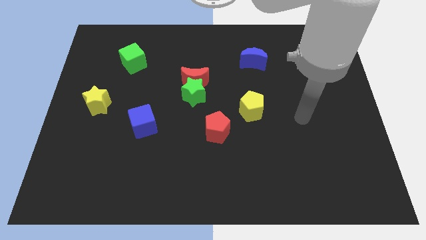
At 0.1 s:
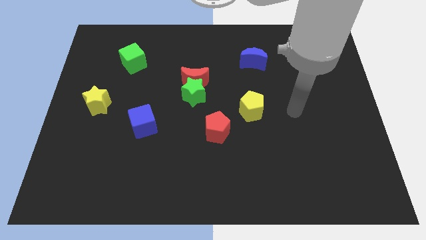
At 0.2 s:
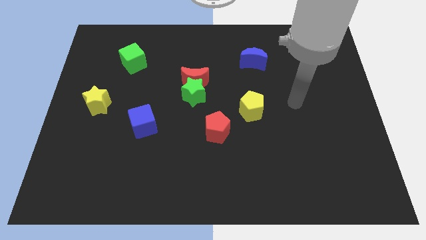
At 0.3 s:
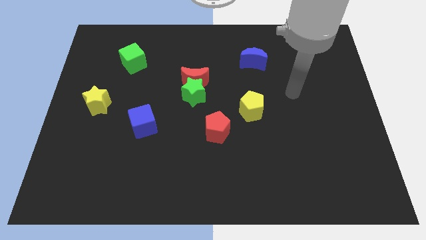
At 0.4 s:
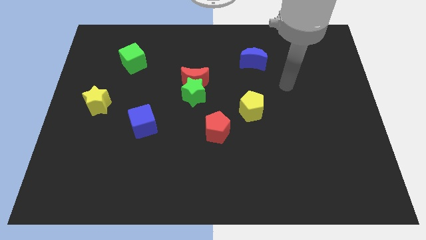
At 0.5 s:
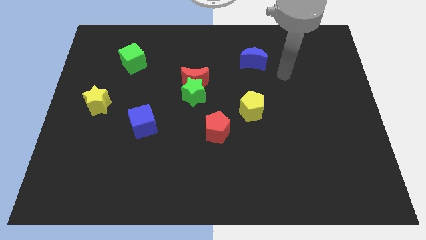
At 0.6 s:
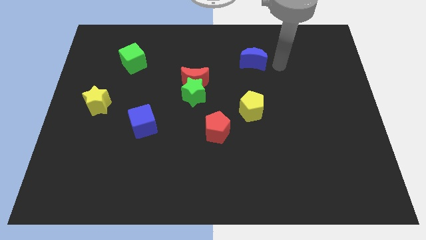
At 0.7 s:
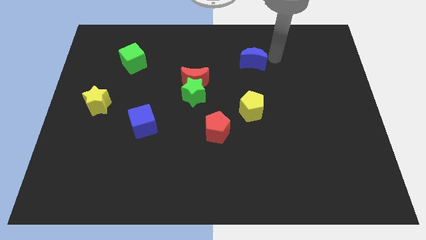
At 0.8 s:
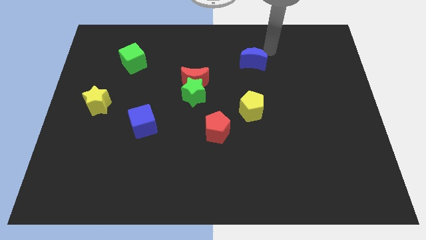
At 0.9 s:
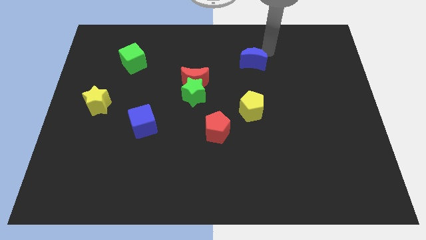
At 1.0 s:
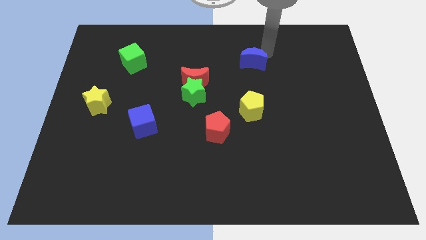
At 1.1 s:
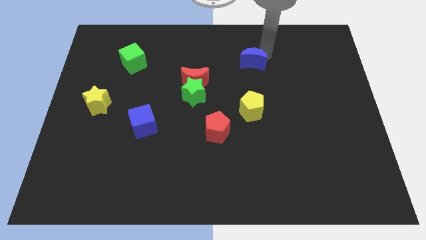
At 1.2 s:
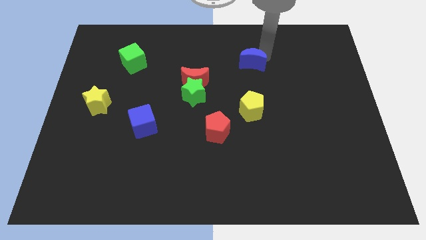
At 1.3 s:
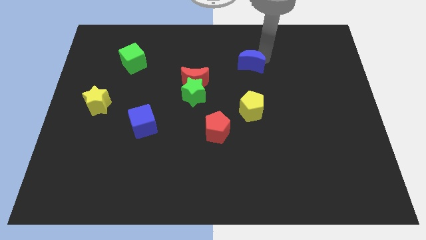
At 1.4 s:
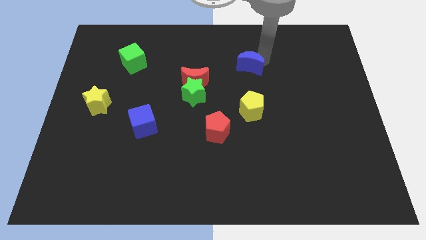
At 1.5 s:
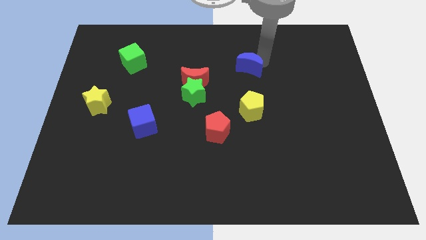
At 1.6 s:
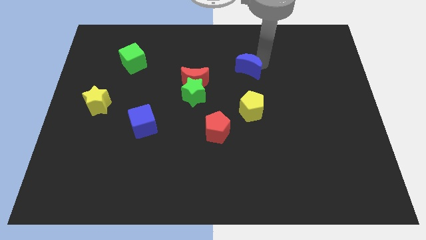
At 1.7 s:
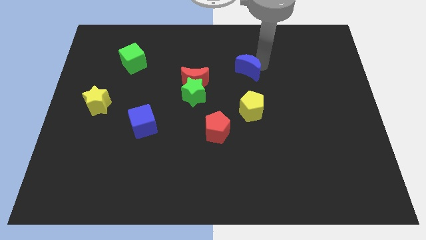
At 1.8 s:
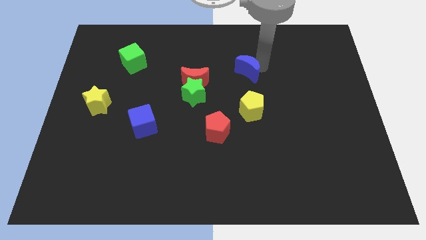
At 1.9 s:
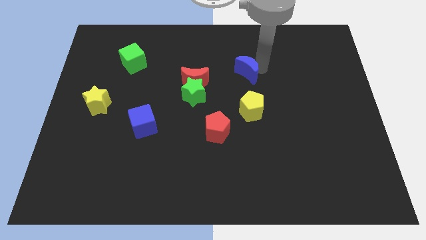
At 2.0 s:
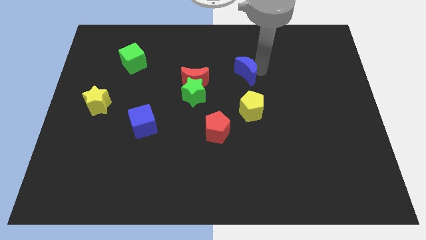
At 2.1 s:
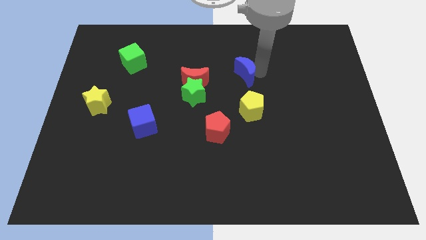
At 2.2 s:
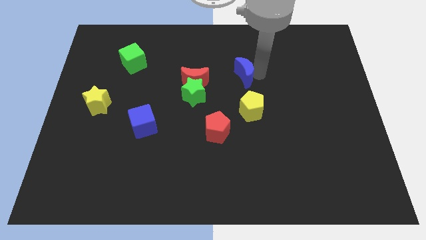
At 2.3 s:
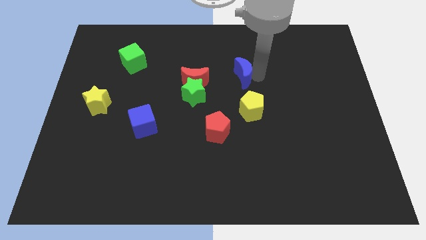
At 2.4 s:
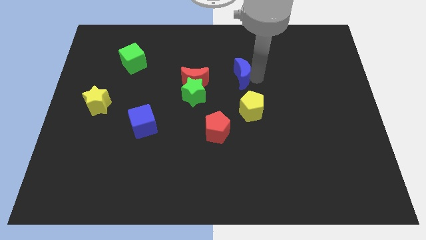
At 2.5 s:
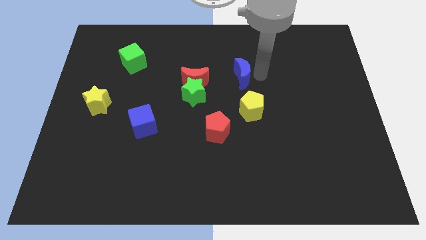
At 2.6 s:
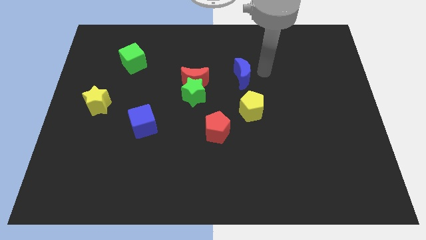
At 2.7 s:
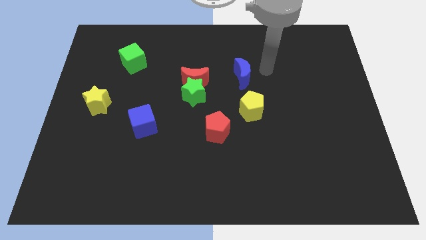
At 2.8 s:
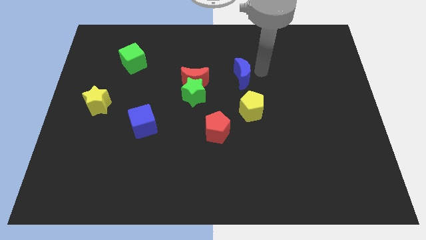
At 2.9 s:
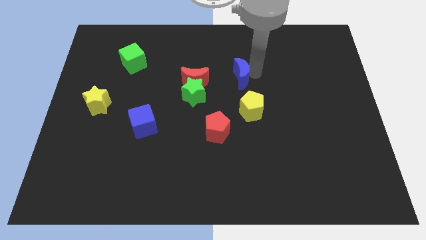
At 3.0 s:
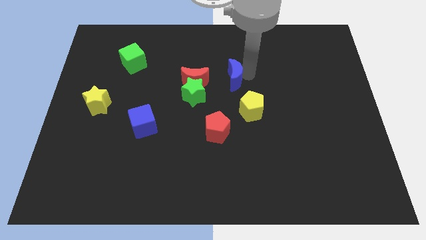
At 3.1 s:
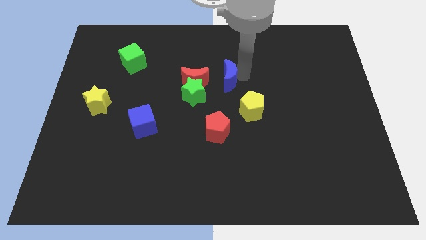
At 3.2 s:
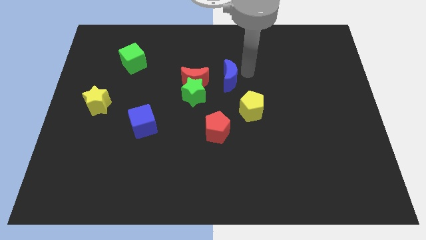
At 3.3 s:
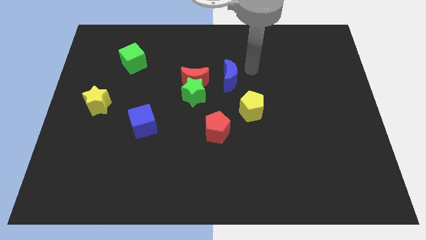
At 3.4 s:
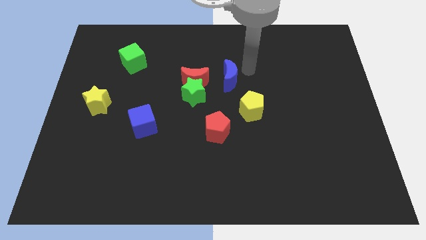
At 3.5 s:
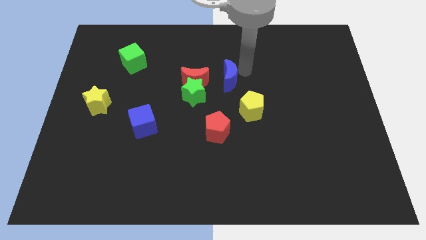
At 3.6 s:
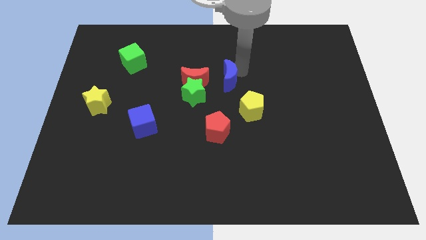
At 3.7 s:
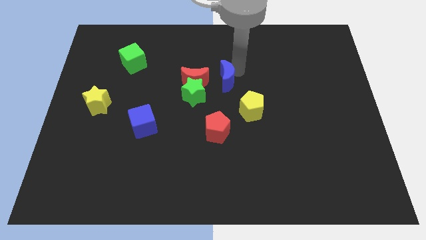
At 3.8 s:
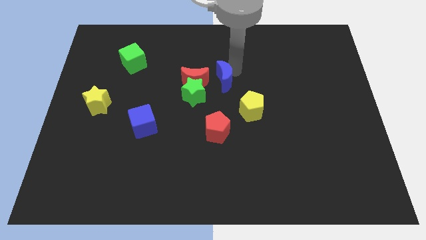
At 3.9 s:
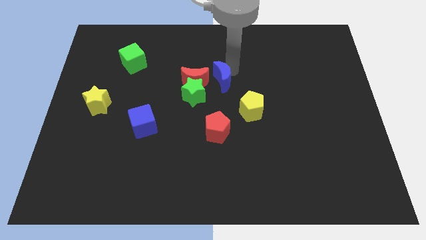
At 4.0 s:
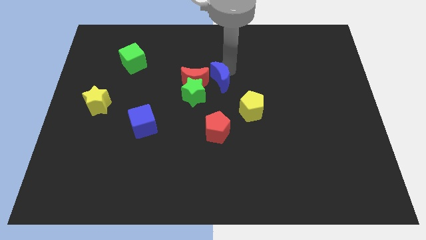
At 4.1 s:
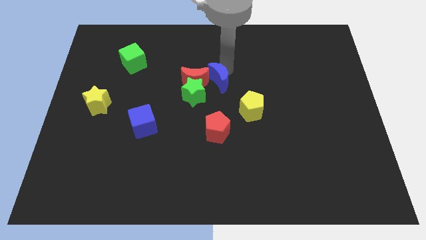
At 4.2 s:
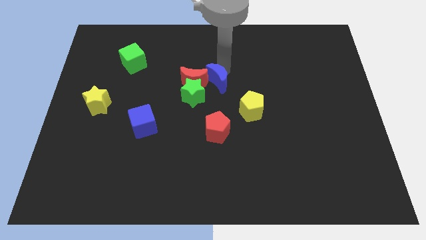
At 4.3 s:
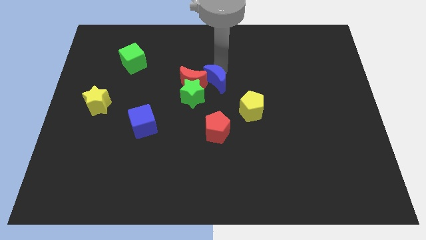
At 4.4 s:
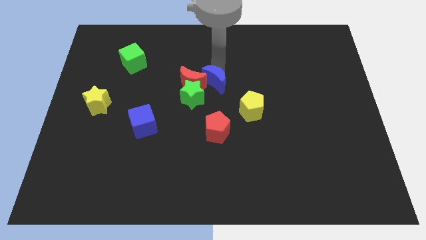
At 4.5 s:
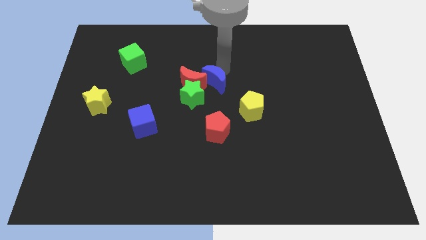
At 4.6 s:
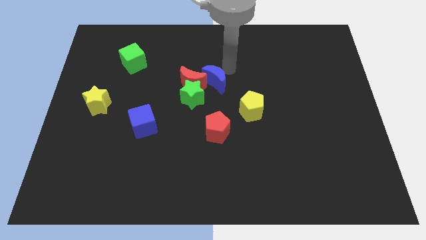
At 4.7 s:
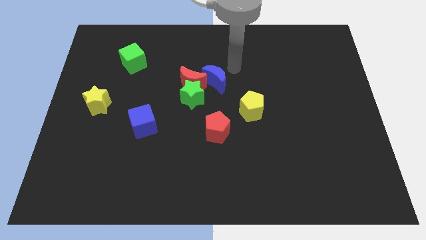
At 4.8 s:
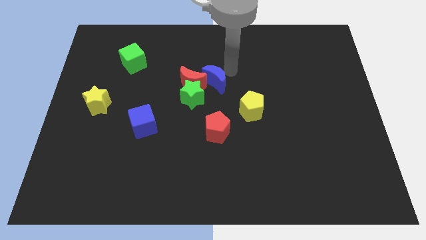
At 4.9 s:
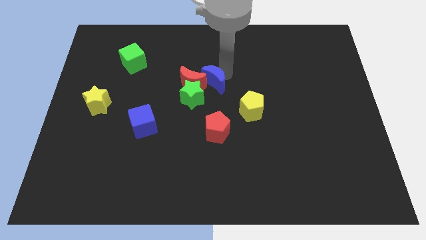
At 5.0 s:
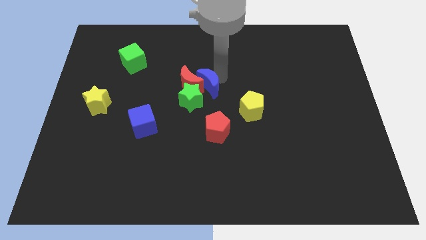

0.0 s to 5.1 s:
slide the blue moon close to the green star
